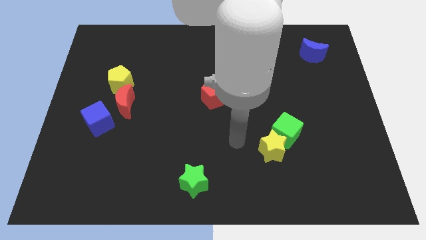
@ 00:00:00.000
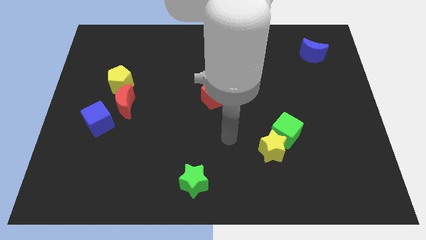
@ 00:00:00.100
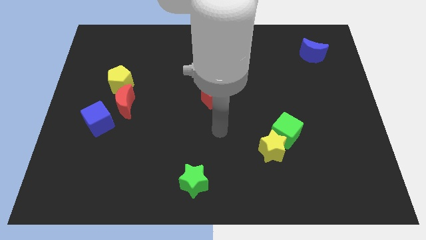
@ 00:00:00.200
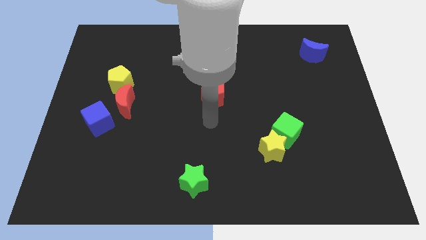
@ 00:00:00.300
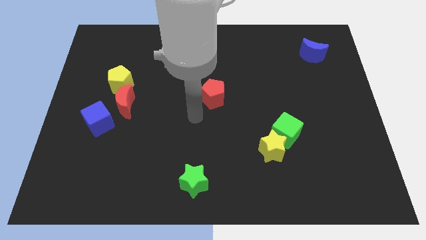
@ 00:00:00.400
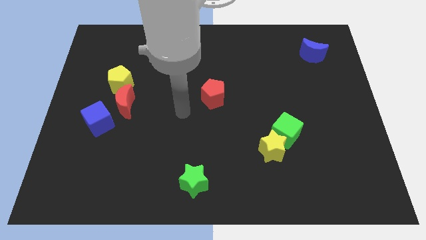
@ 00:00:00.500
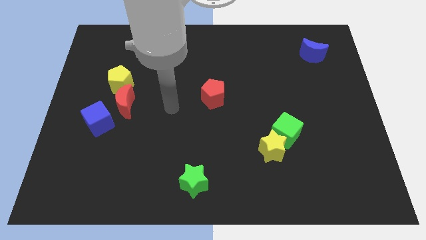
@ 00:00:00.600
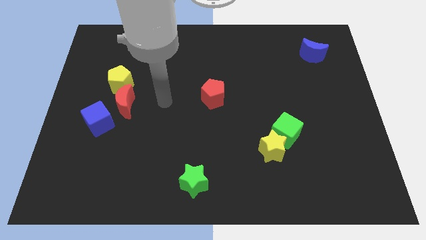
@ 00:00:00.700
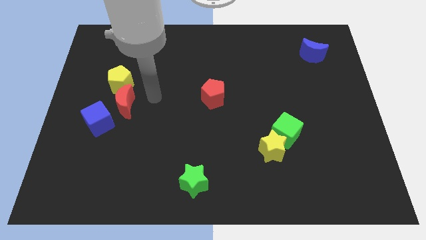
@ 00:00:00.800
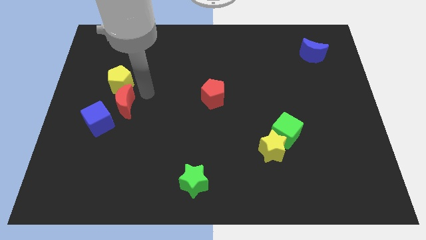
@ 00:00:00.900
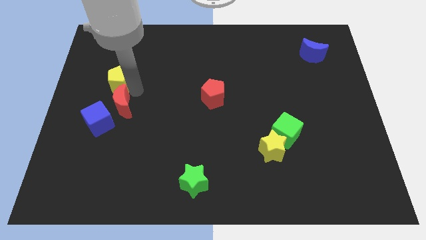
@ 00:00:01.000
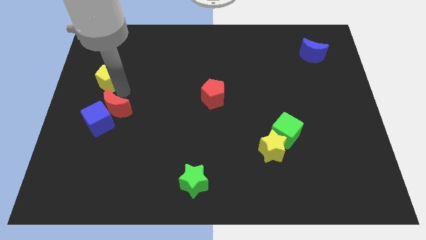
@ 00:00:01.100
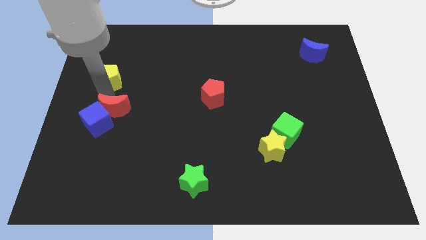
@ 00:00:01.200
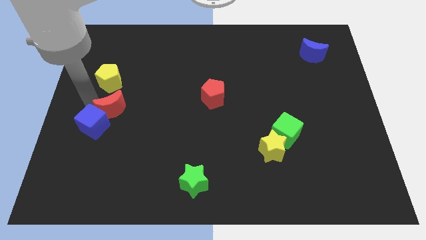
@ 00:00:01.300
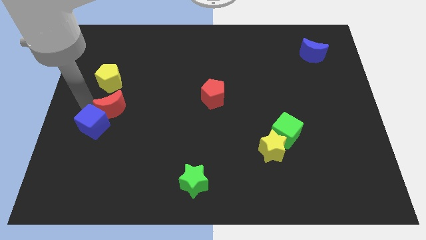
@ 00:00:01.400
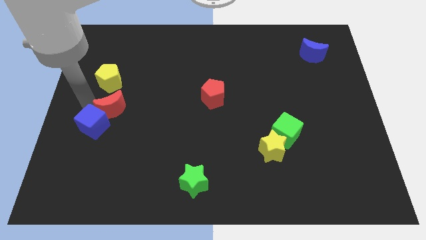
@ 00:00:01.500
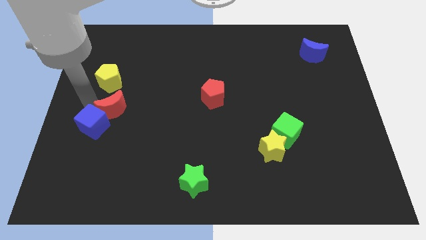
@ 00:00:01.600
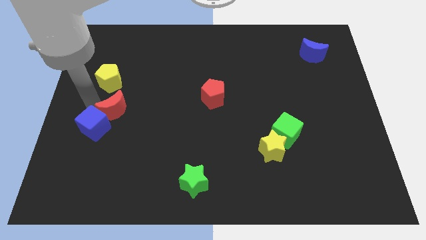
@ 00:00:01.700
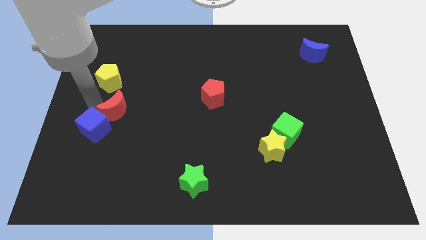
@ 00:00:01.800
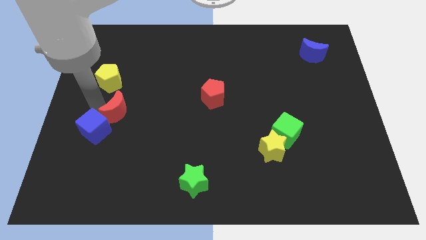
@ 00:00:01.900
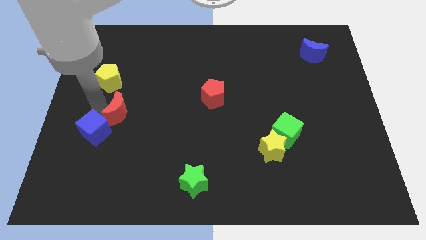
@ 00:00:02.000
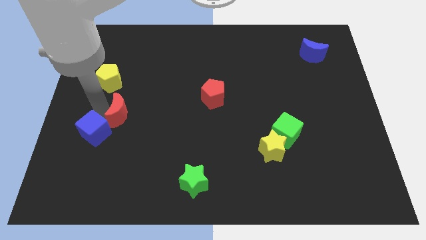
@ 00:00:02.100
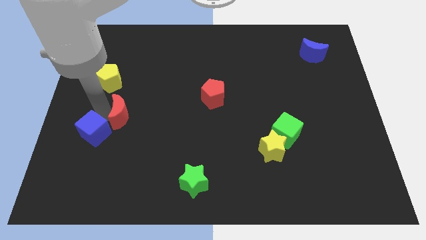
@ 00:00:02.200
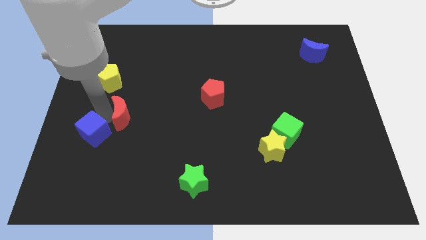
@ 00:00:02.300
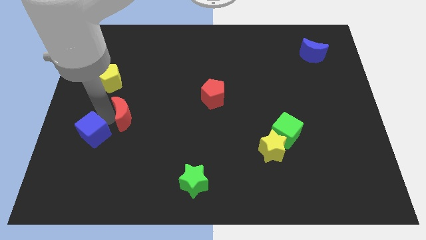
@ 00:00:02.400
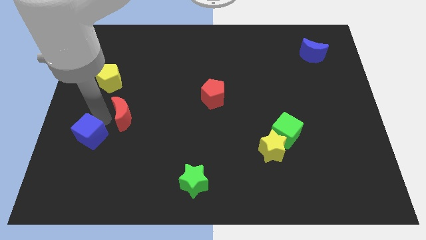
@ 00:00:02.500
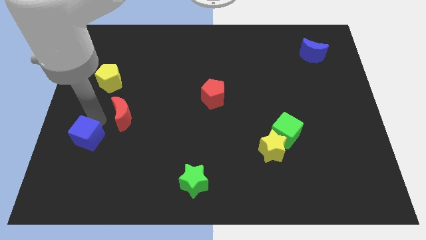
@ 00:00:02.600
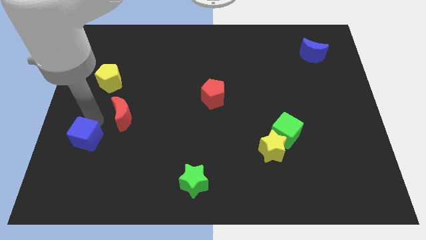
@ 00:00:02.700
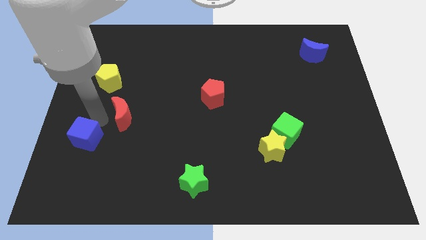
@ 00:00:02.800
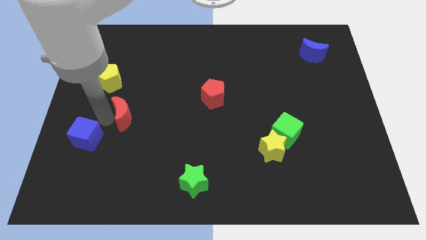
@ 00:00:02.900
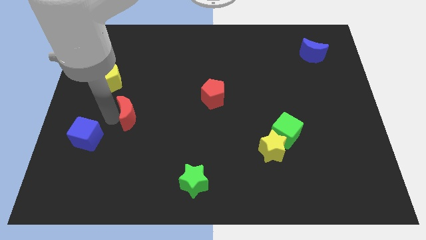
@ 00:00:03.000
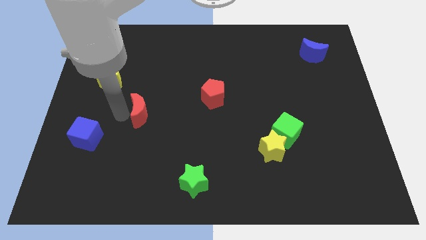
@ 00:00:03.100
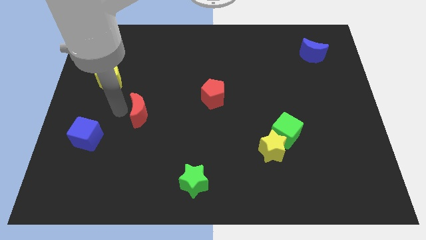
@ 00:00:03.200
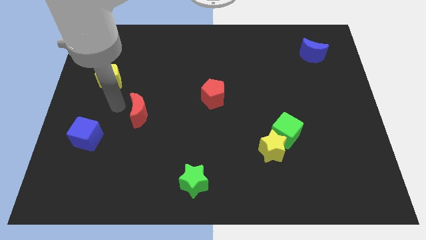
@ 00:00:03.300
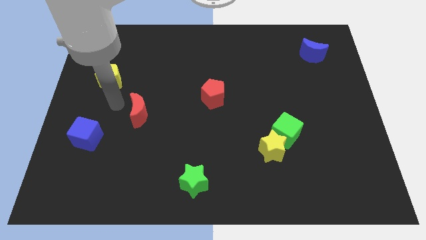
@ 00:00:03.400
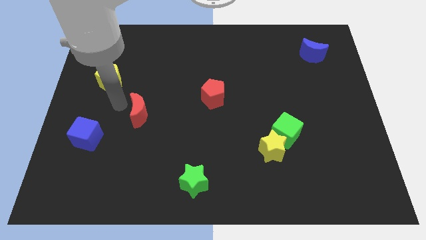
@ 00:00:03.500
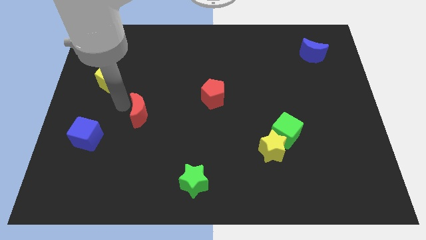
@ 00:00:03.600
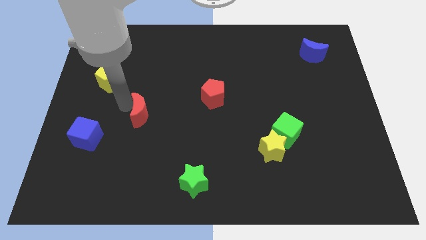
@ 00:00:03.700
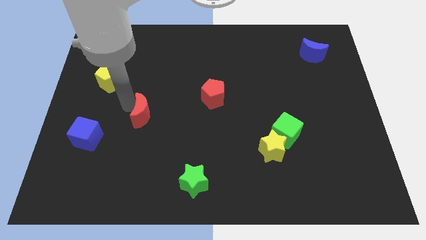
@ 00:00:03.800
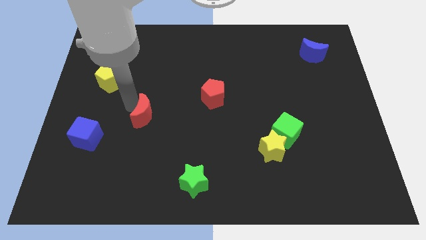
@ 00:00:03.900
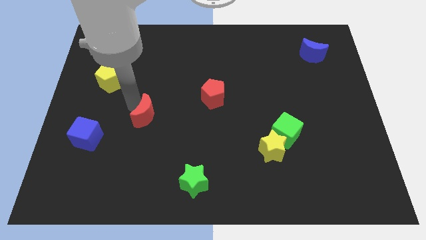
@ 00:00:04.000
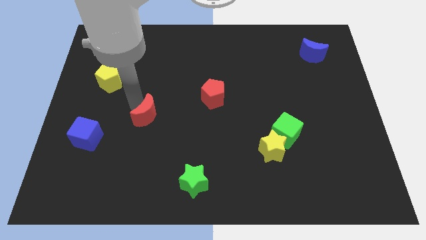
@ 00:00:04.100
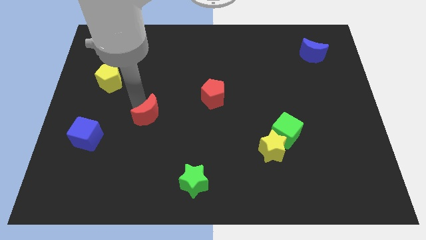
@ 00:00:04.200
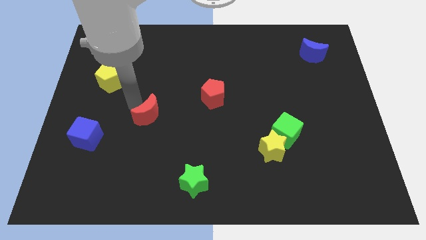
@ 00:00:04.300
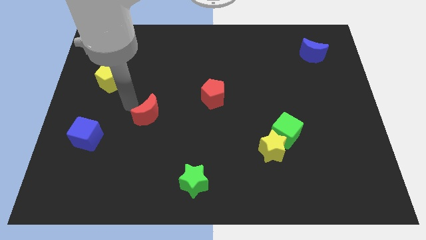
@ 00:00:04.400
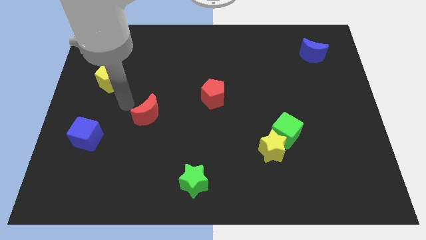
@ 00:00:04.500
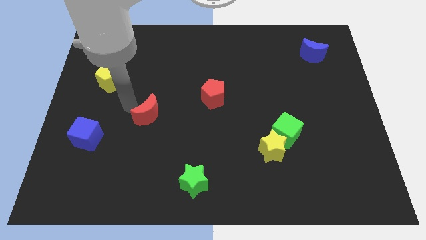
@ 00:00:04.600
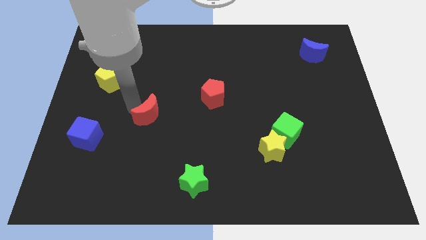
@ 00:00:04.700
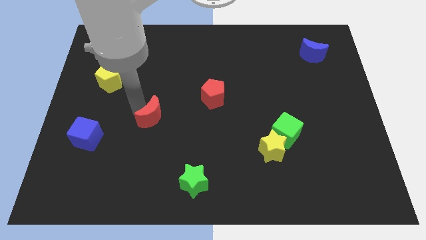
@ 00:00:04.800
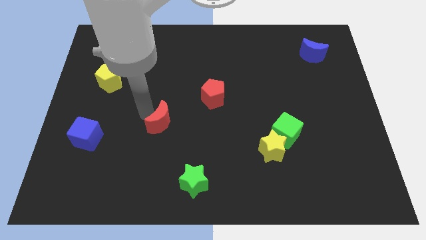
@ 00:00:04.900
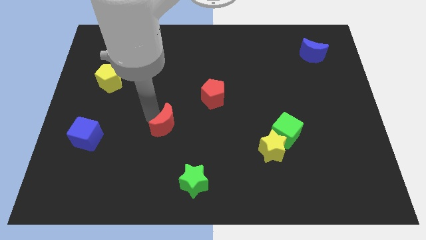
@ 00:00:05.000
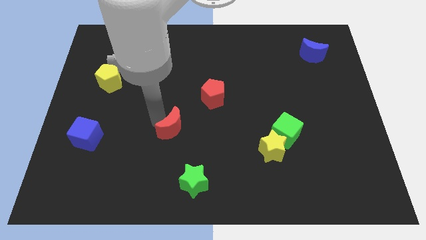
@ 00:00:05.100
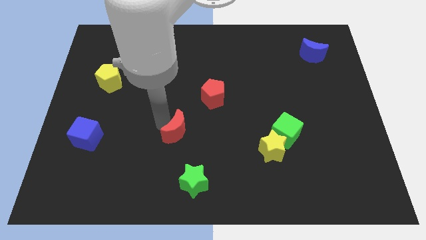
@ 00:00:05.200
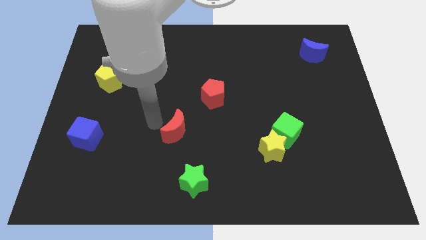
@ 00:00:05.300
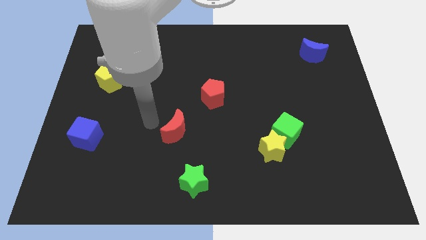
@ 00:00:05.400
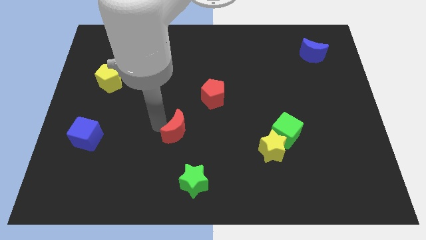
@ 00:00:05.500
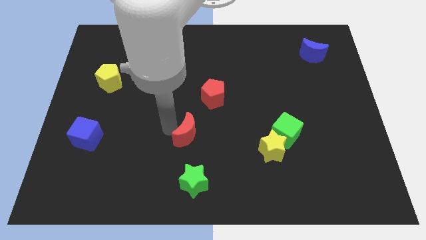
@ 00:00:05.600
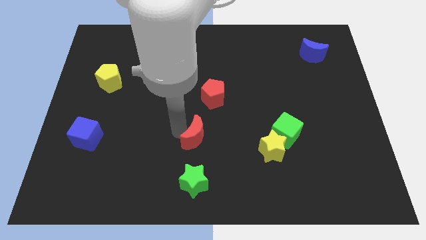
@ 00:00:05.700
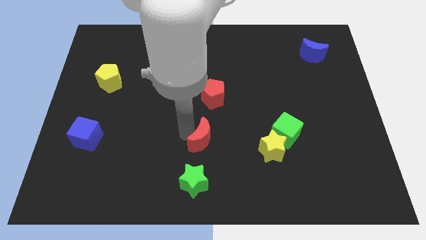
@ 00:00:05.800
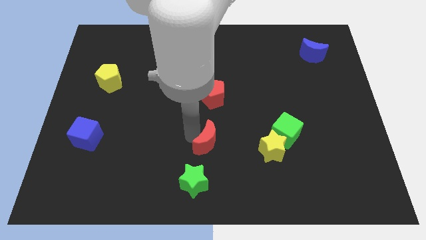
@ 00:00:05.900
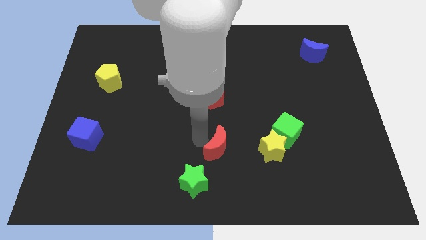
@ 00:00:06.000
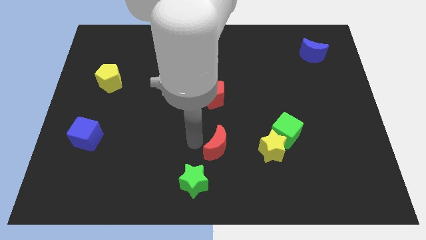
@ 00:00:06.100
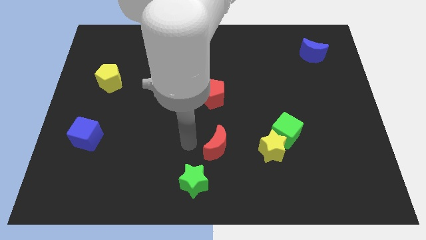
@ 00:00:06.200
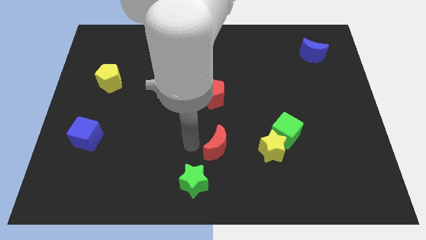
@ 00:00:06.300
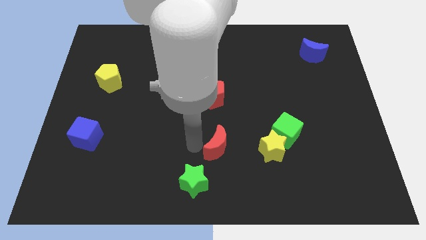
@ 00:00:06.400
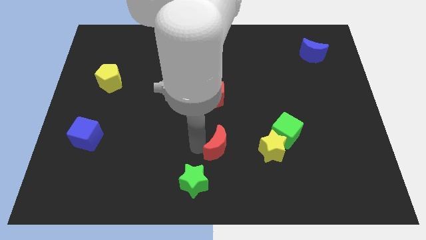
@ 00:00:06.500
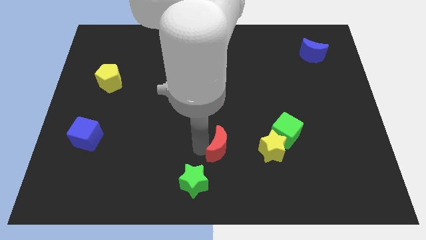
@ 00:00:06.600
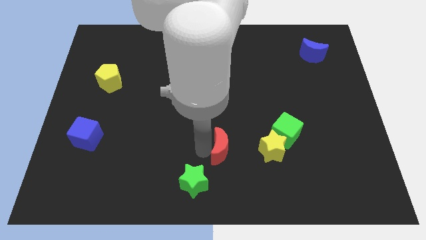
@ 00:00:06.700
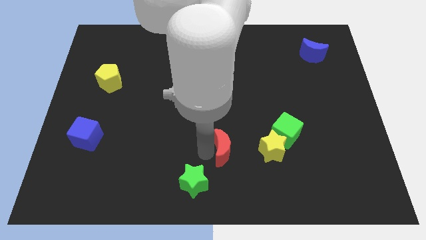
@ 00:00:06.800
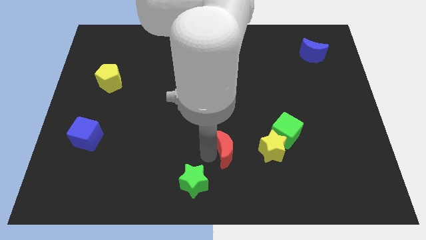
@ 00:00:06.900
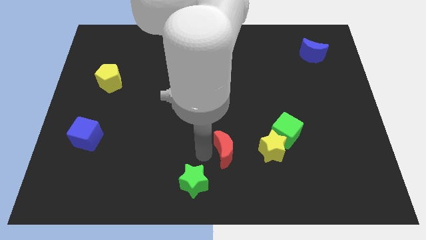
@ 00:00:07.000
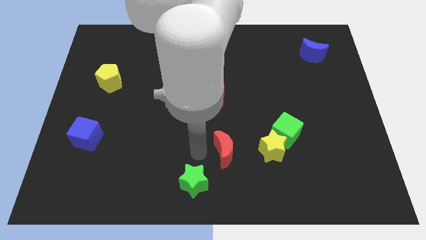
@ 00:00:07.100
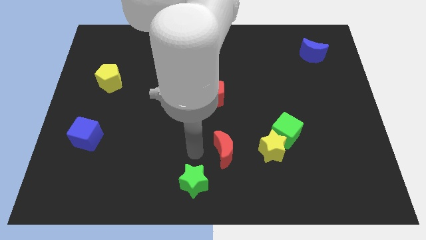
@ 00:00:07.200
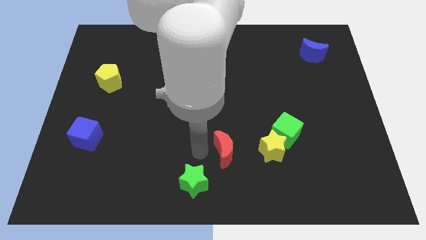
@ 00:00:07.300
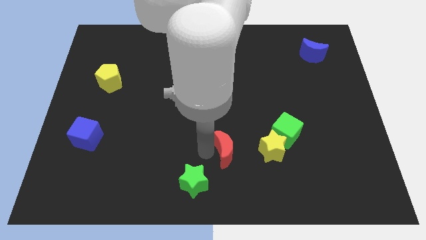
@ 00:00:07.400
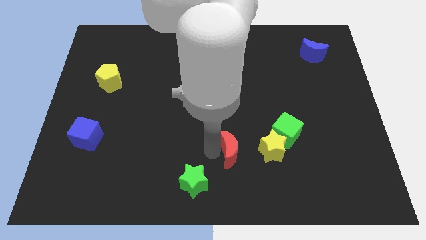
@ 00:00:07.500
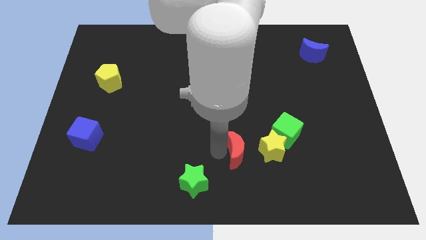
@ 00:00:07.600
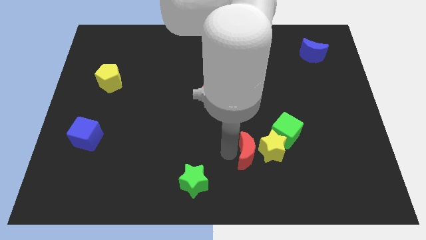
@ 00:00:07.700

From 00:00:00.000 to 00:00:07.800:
push the red moon to the yellow star
